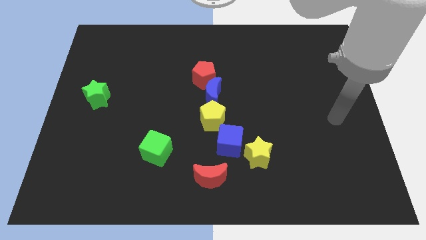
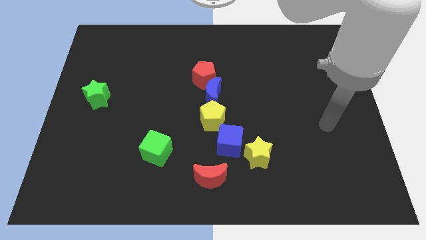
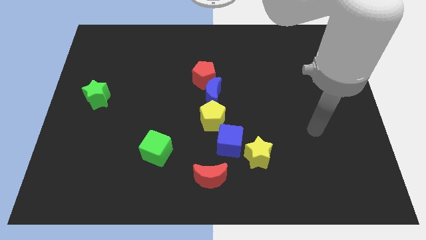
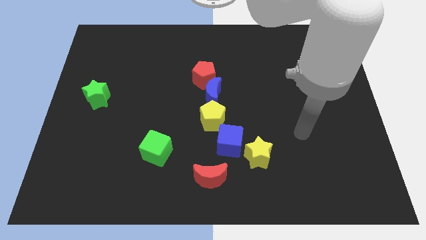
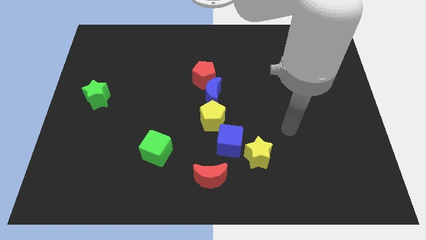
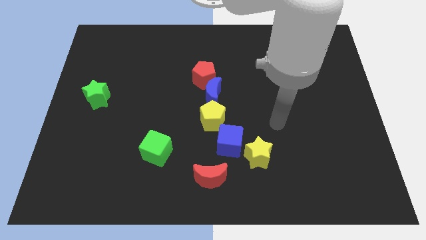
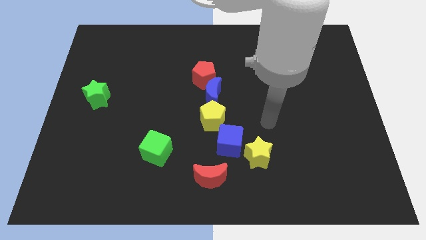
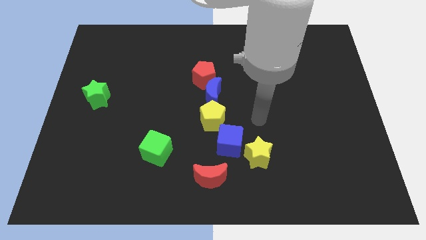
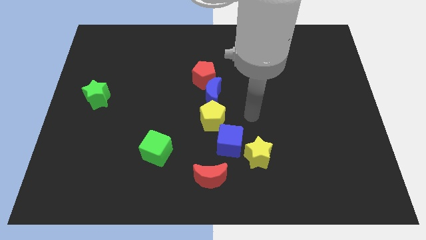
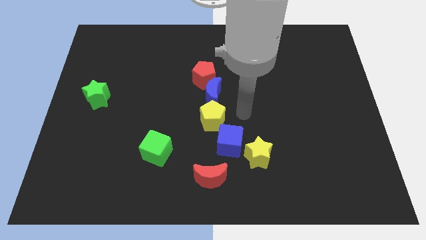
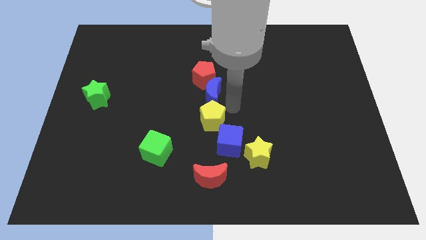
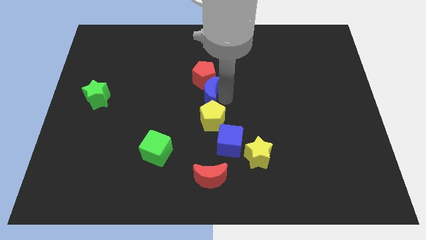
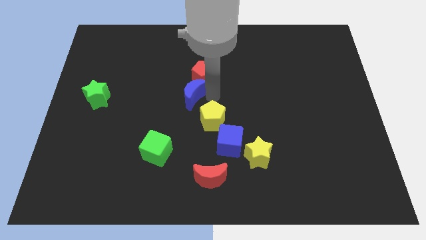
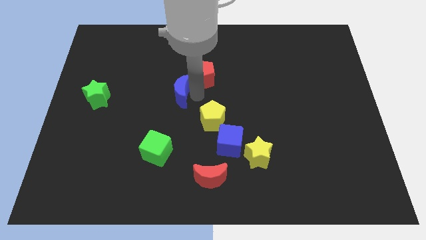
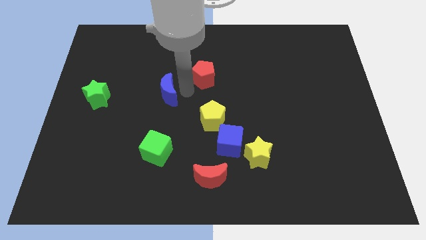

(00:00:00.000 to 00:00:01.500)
move the red pentagon away from the blue moon

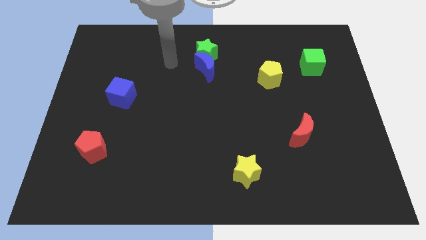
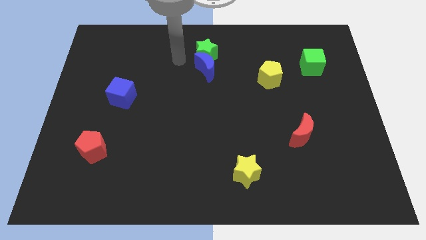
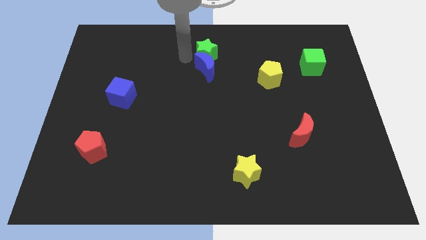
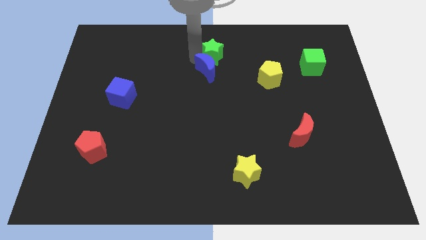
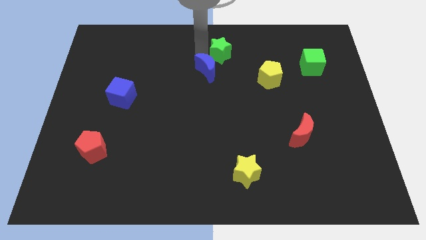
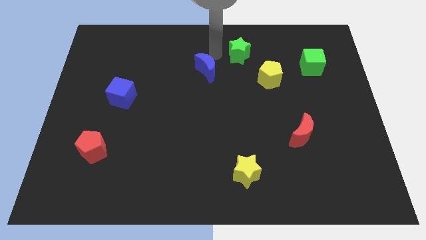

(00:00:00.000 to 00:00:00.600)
separate the blue moon from the green star

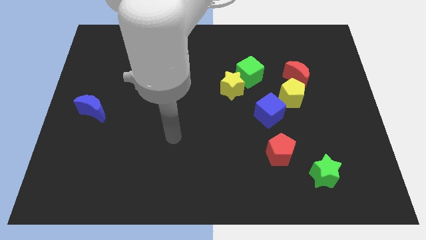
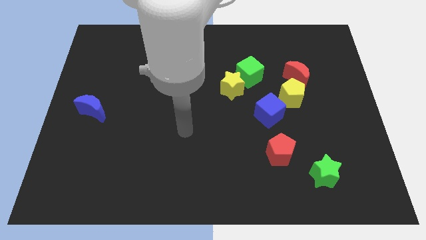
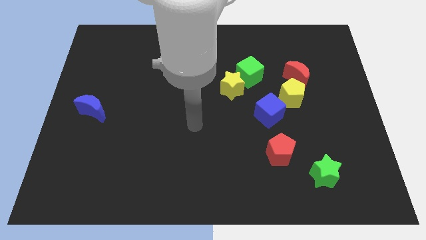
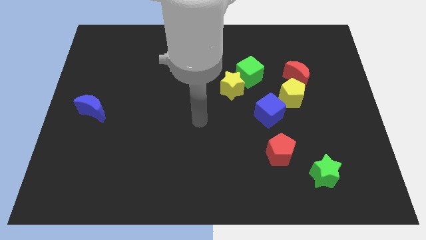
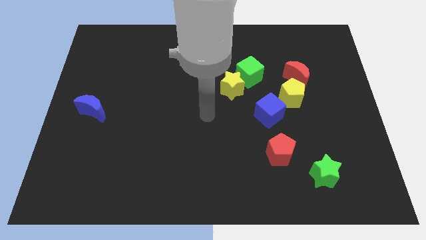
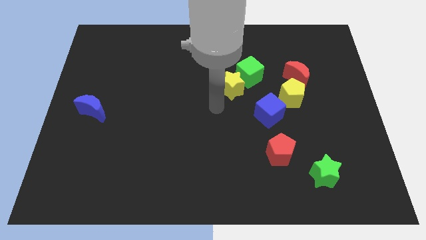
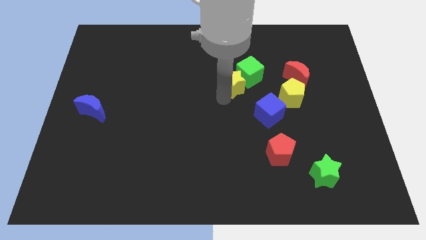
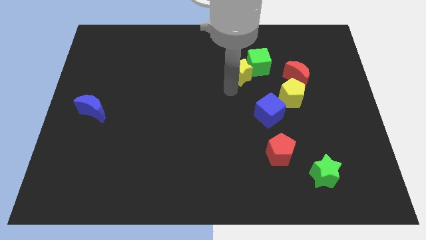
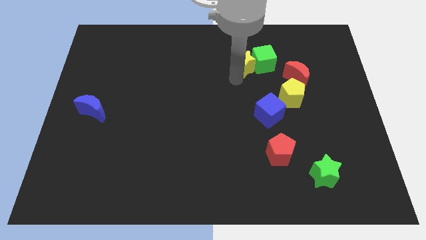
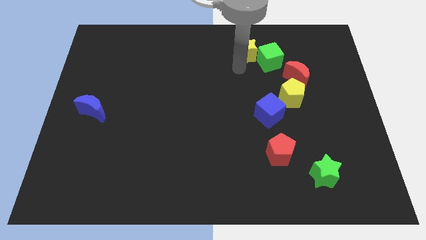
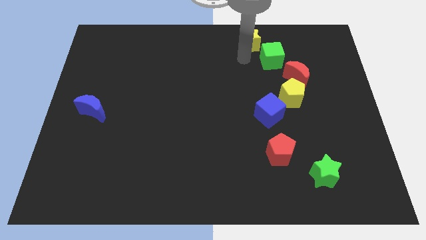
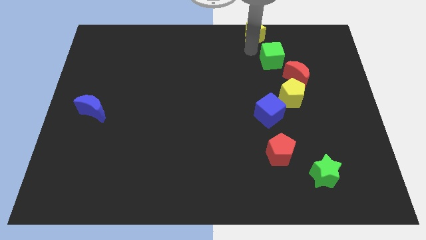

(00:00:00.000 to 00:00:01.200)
separate the green cube from the yellow star

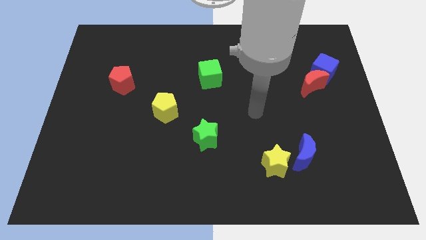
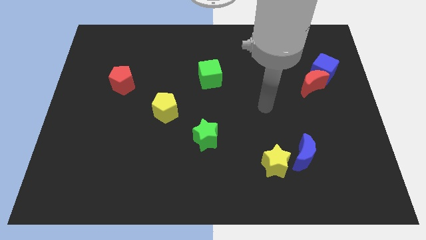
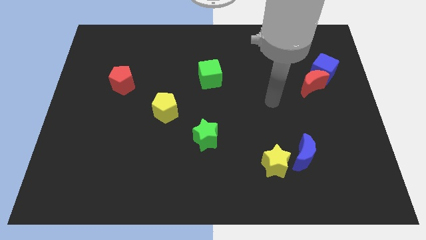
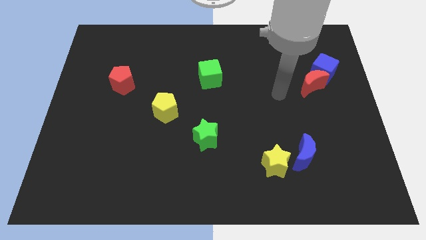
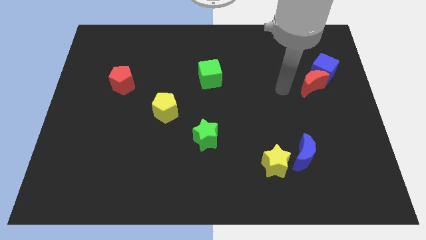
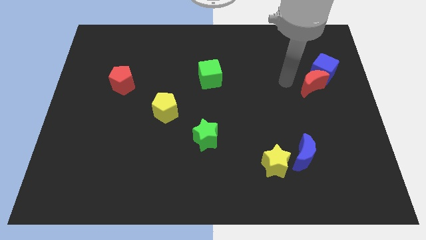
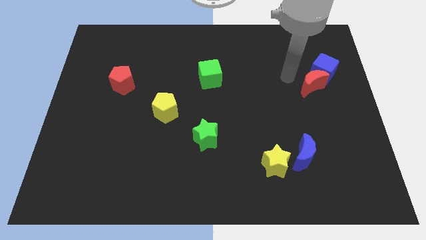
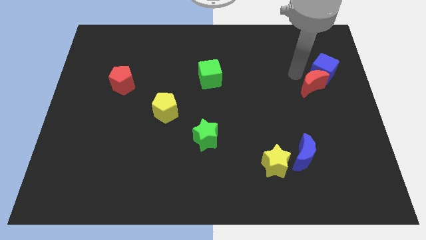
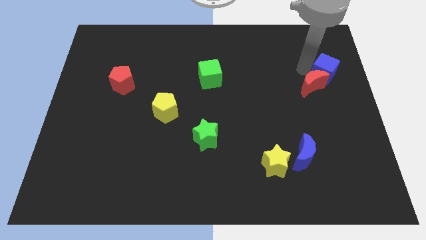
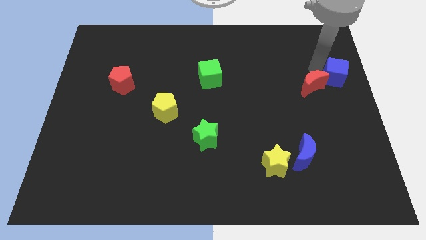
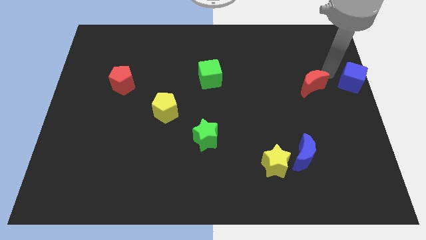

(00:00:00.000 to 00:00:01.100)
separate the red moon from the blue cube

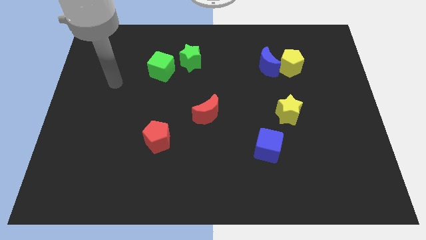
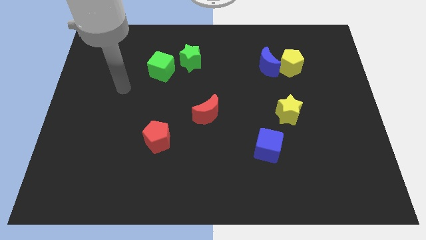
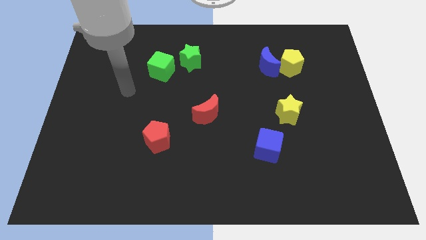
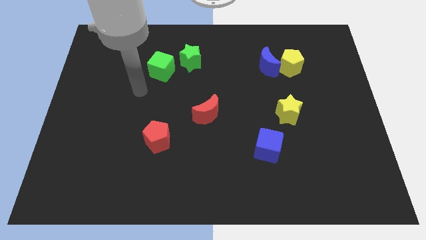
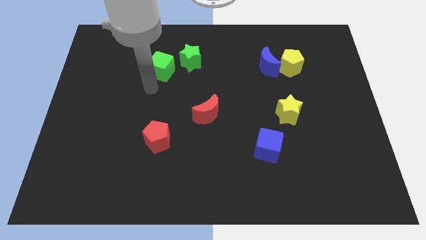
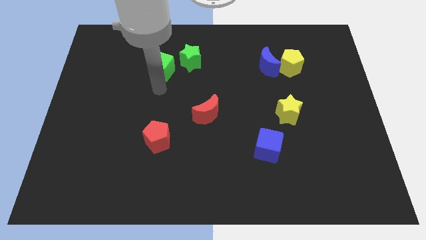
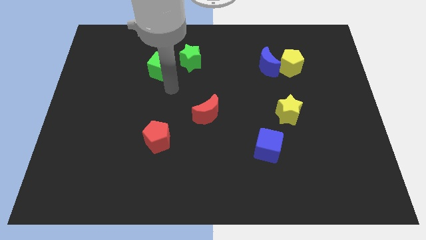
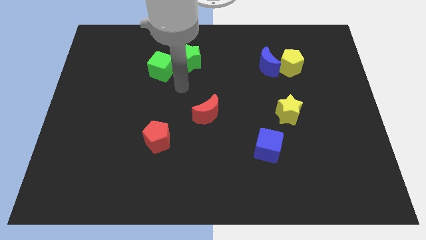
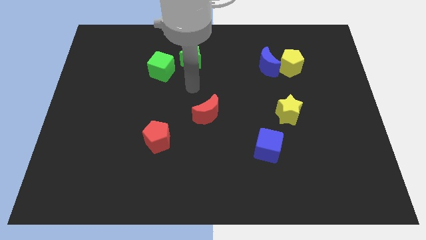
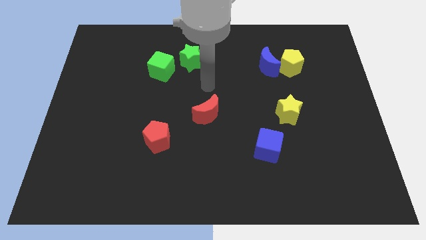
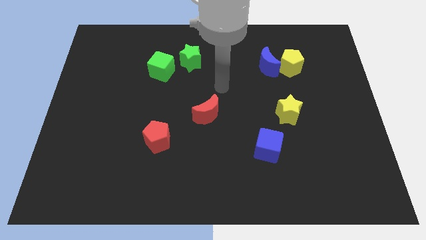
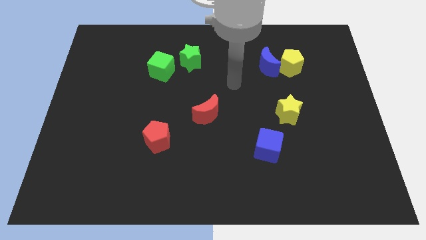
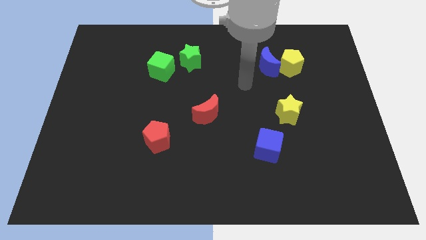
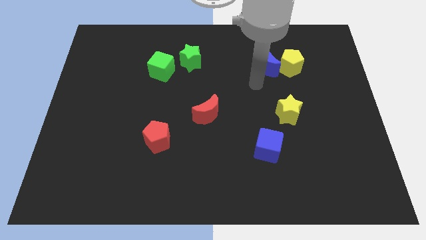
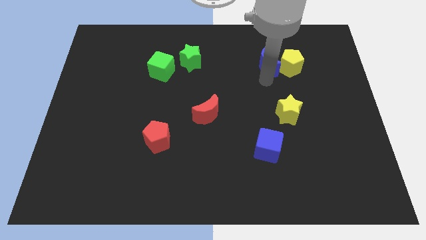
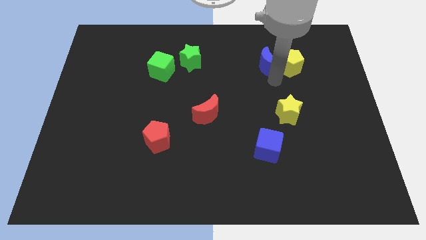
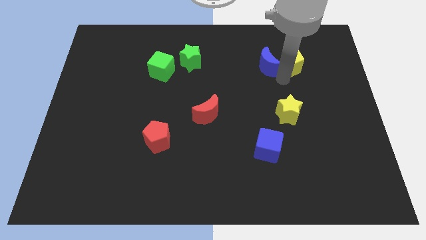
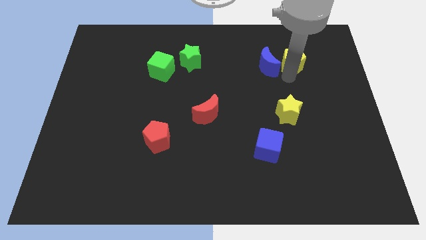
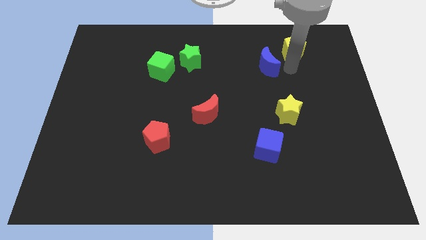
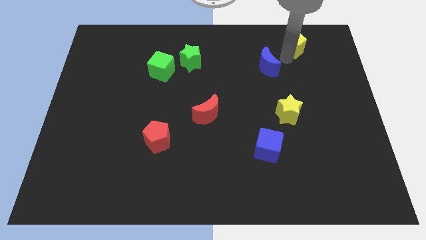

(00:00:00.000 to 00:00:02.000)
separate the blue moon from the yellow pentagon

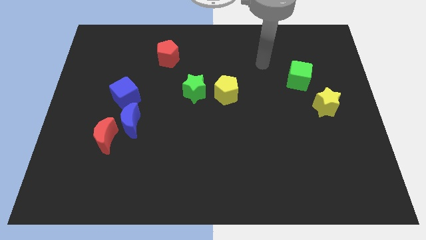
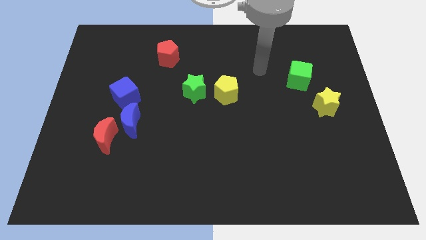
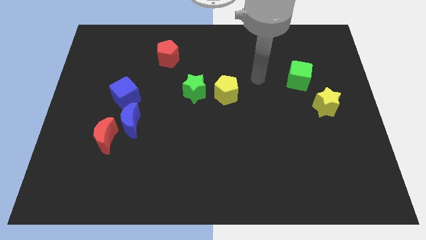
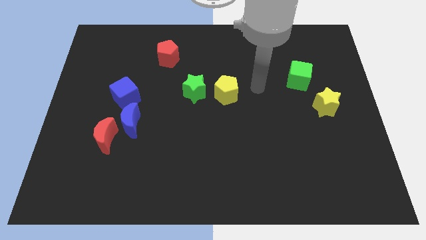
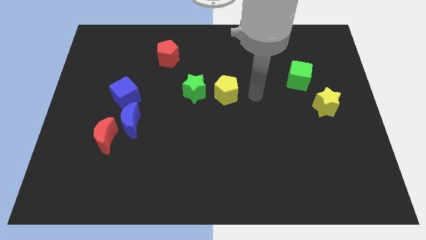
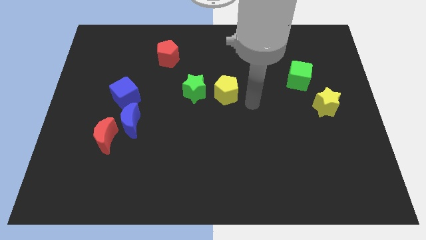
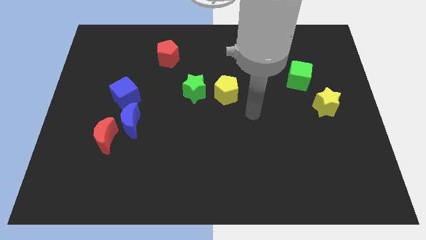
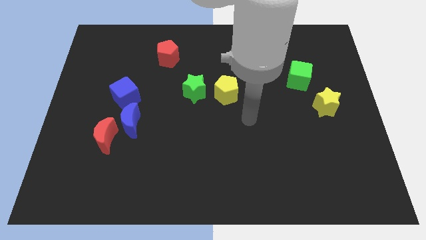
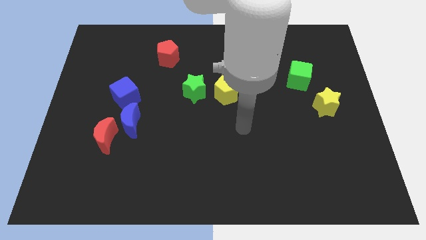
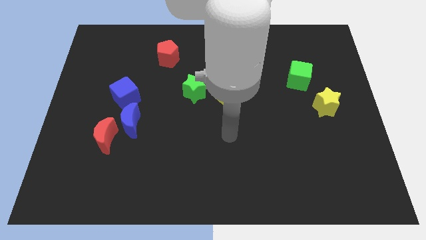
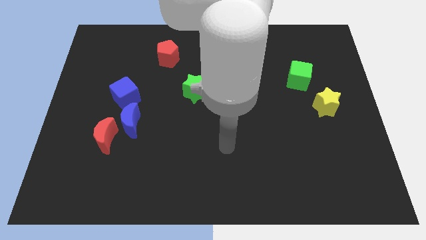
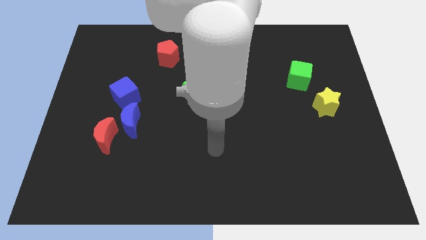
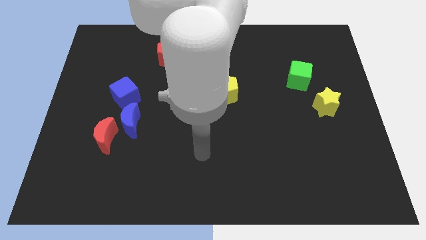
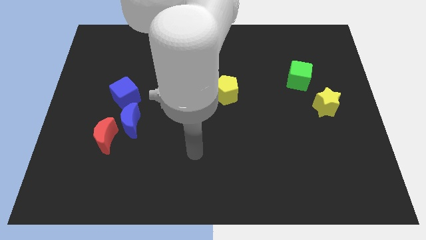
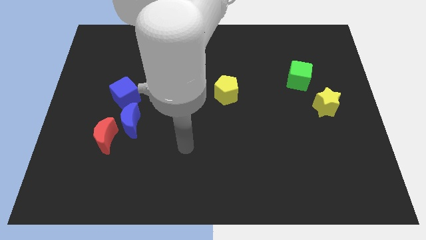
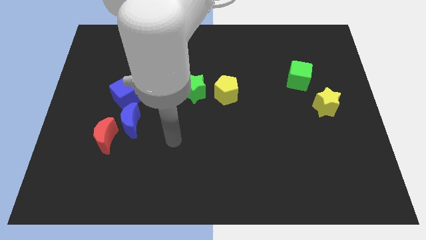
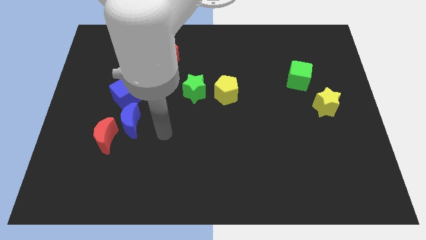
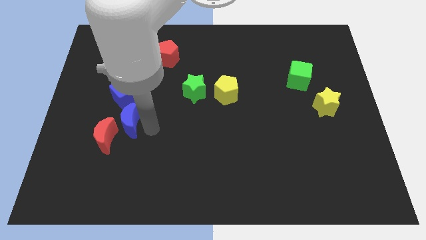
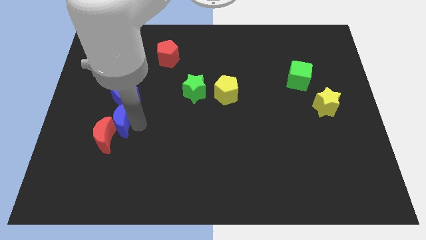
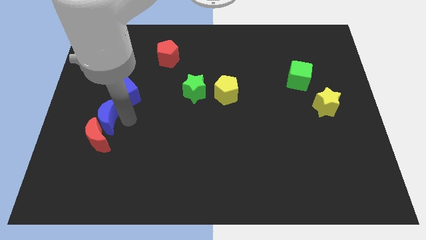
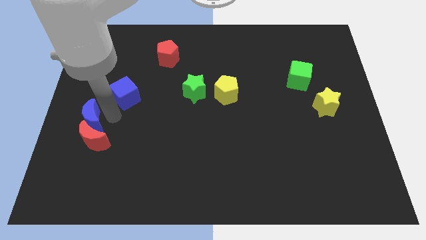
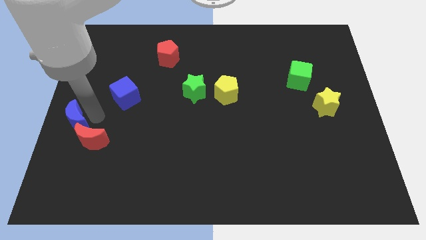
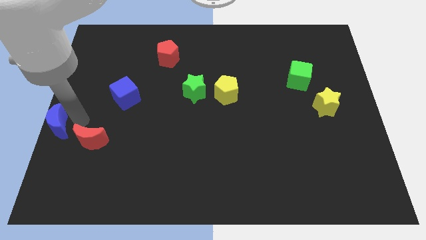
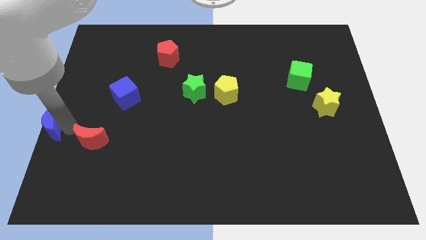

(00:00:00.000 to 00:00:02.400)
move the red moon away from the blue moon

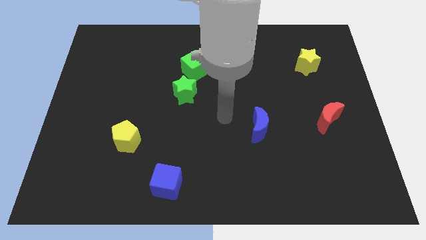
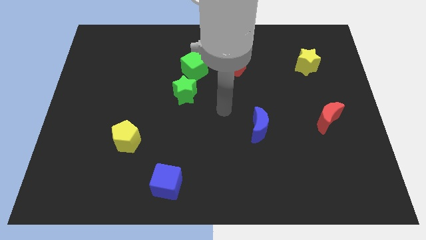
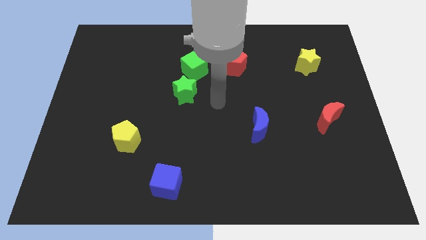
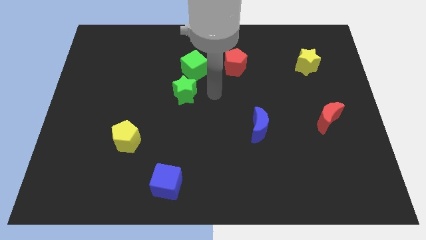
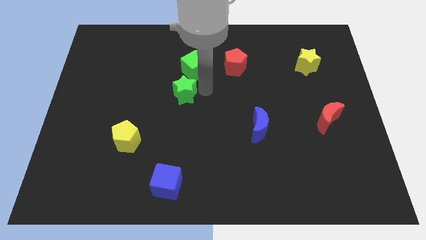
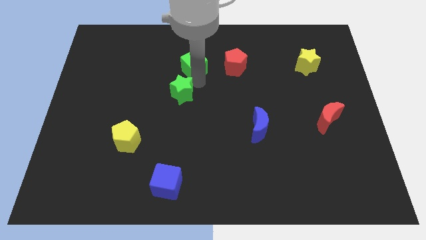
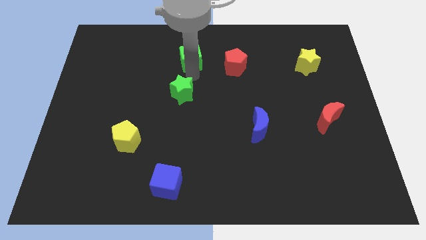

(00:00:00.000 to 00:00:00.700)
pull the green star apart from the green cube
